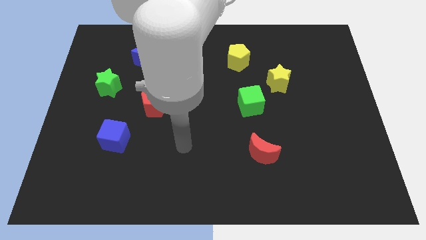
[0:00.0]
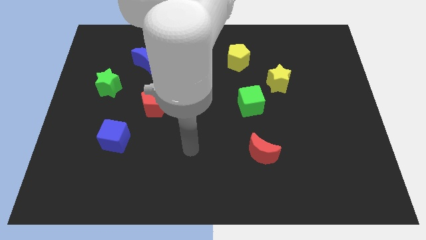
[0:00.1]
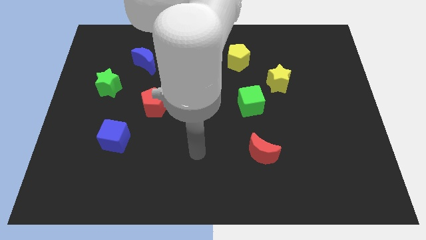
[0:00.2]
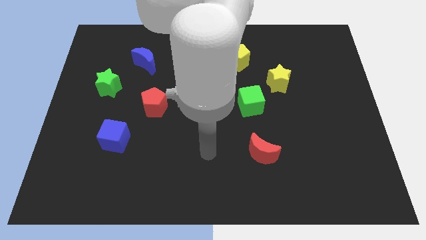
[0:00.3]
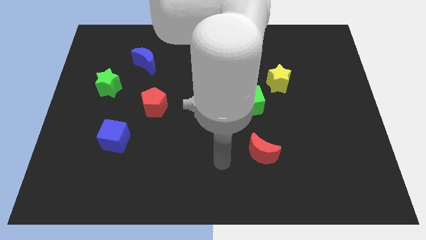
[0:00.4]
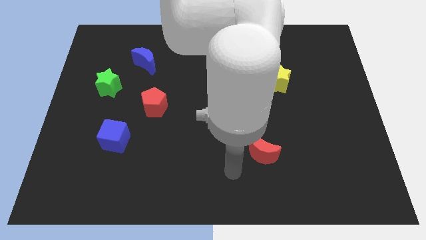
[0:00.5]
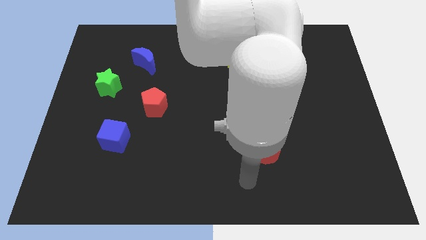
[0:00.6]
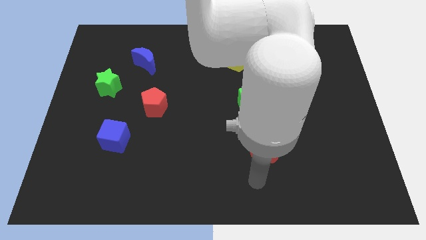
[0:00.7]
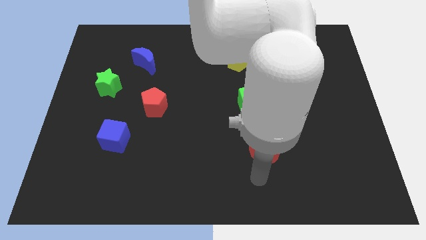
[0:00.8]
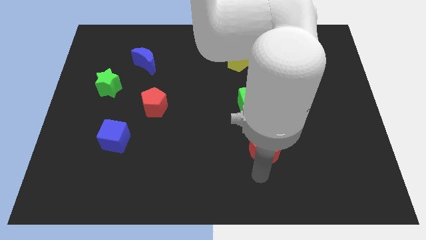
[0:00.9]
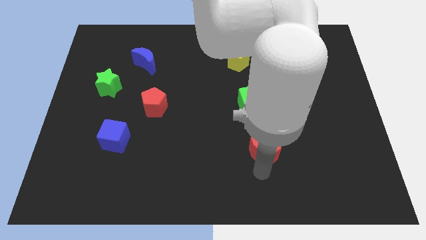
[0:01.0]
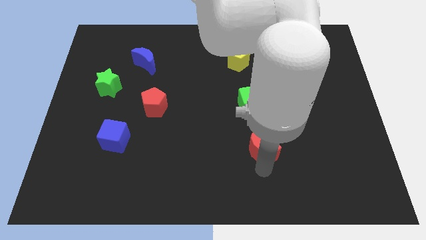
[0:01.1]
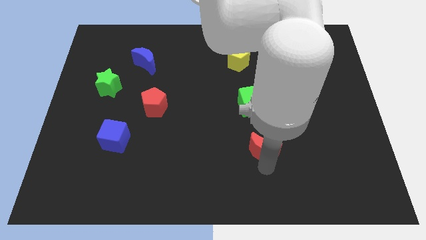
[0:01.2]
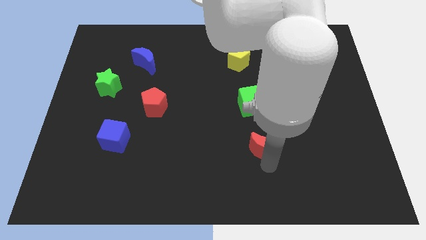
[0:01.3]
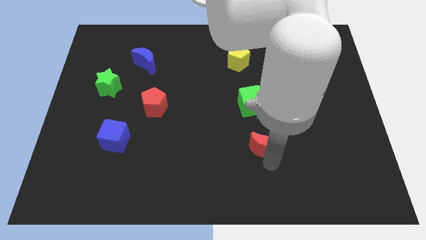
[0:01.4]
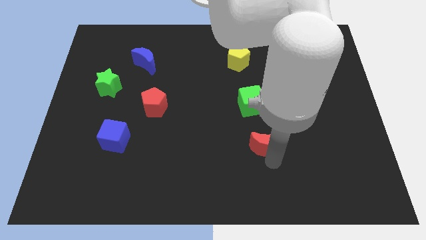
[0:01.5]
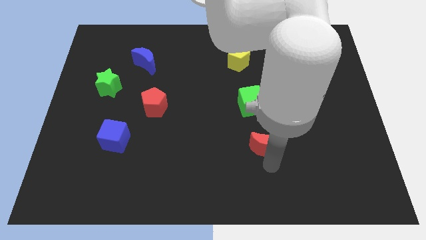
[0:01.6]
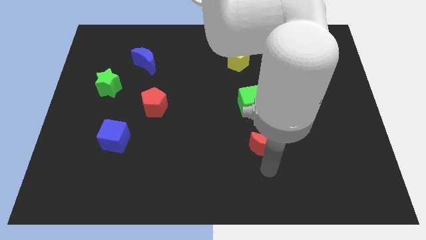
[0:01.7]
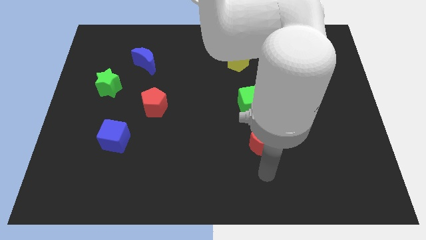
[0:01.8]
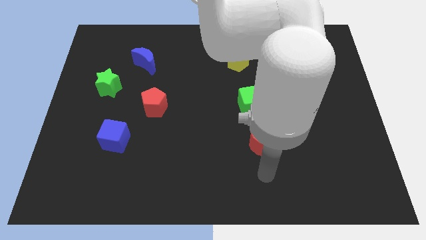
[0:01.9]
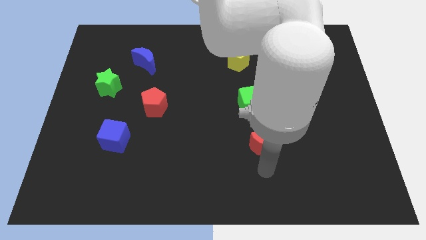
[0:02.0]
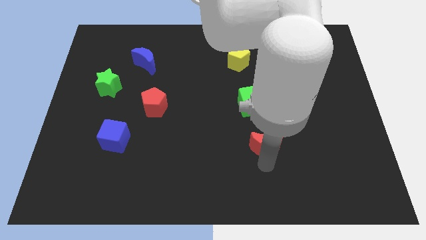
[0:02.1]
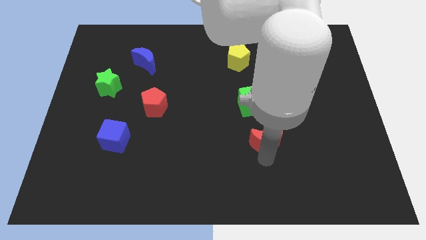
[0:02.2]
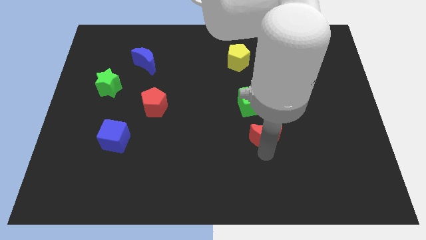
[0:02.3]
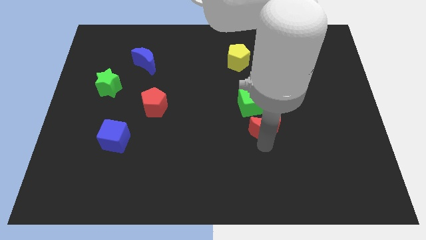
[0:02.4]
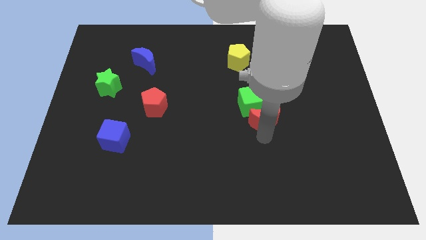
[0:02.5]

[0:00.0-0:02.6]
push the red moon a little bit upwards

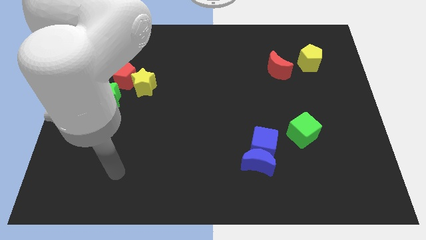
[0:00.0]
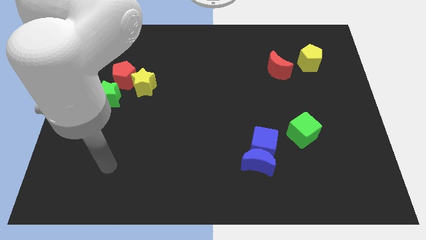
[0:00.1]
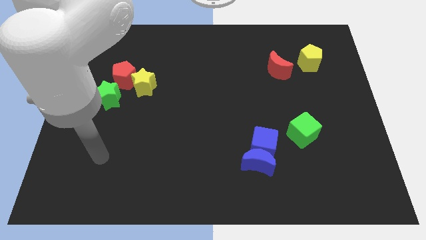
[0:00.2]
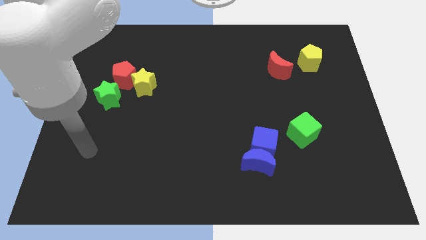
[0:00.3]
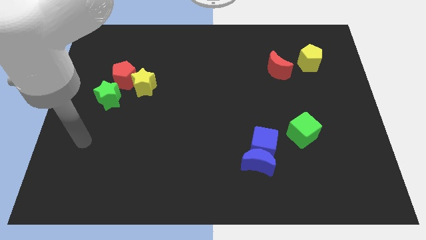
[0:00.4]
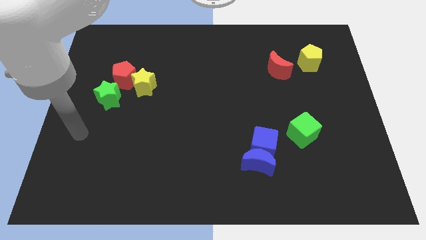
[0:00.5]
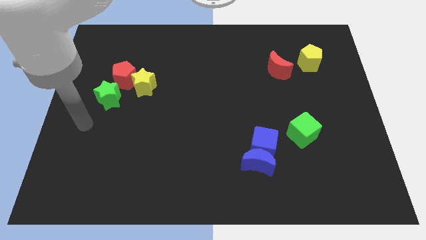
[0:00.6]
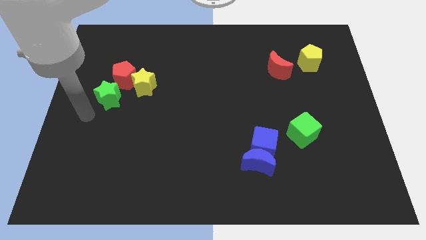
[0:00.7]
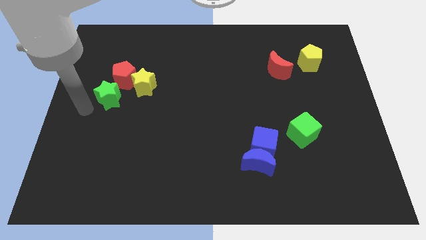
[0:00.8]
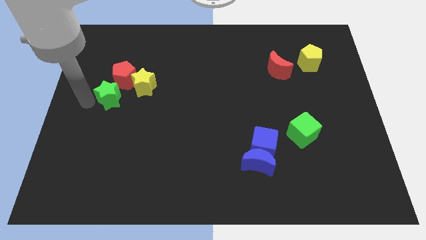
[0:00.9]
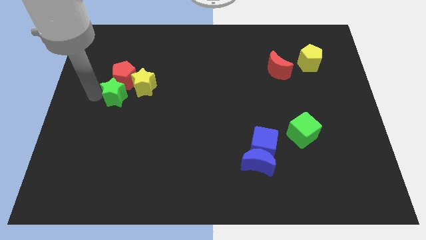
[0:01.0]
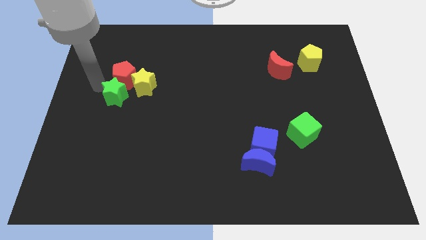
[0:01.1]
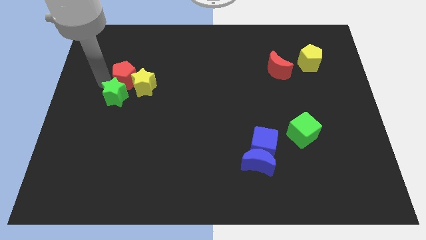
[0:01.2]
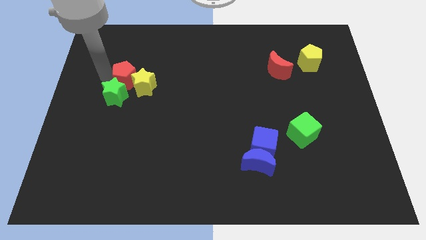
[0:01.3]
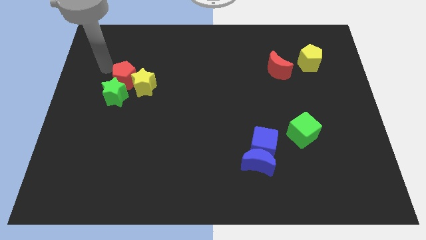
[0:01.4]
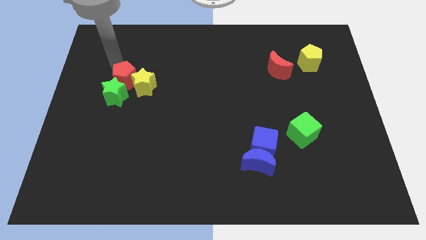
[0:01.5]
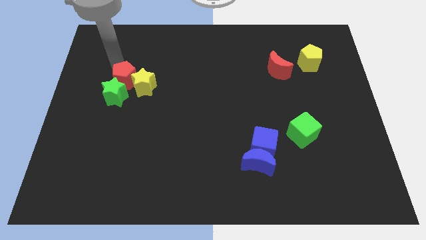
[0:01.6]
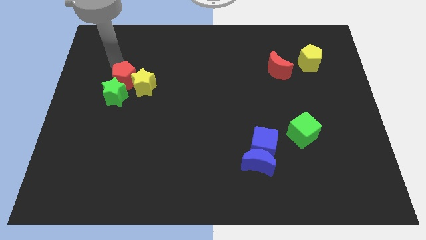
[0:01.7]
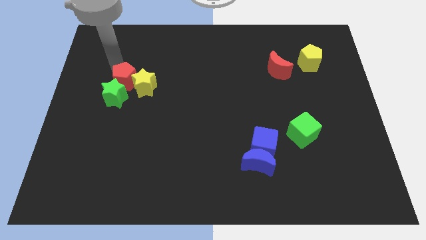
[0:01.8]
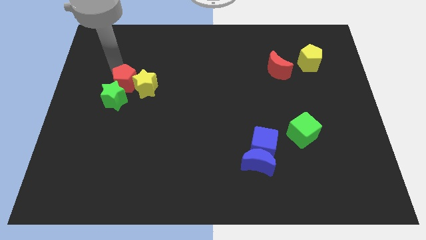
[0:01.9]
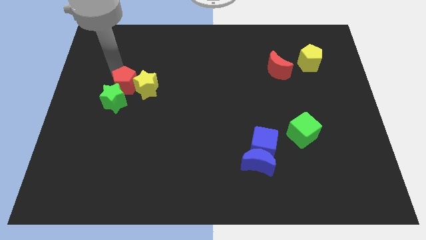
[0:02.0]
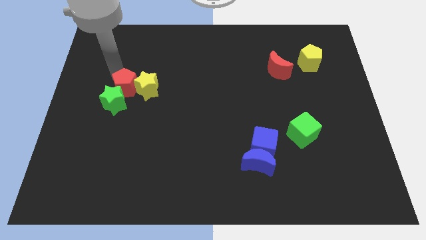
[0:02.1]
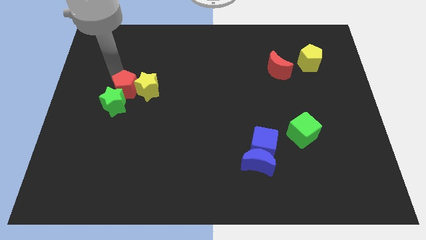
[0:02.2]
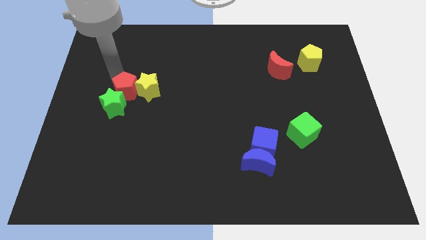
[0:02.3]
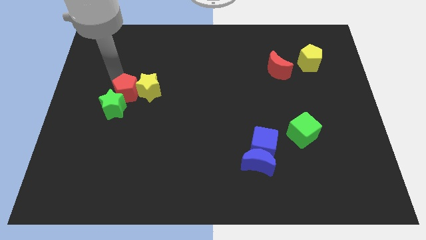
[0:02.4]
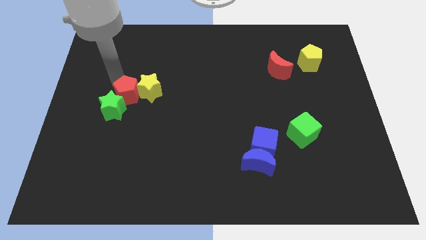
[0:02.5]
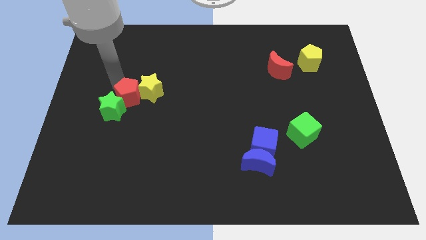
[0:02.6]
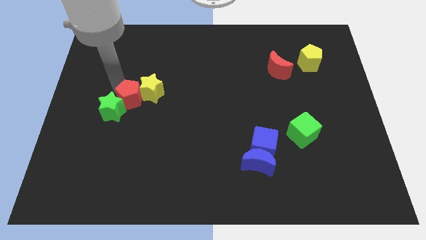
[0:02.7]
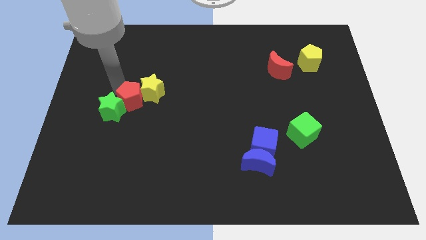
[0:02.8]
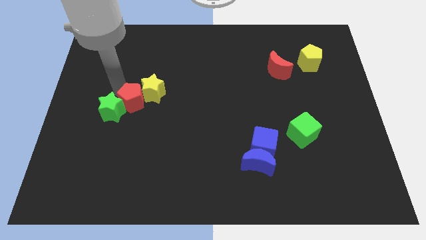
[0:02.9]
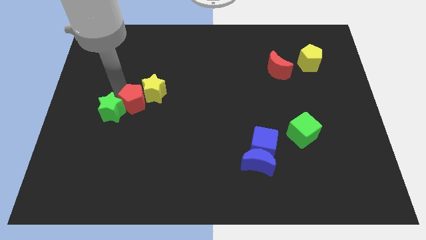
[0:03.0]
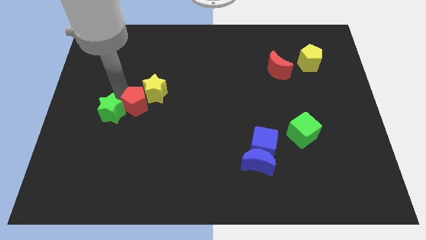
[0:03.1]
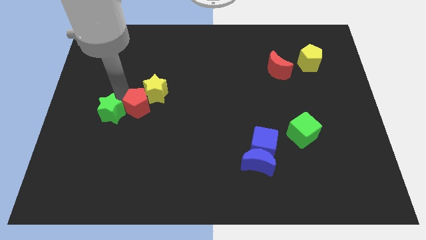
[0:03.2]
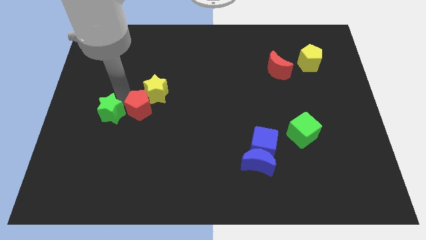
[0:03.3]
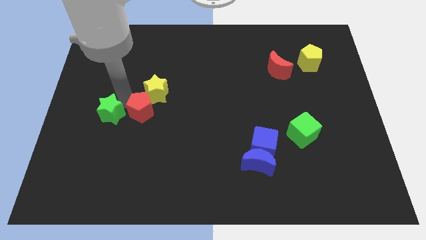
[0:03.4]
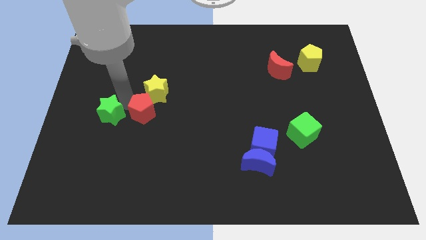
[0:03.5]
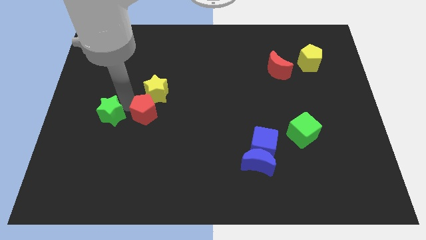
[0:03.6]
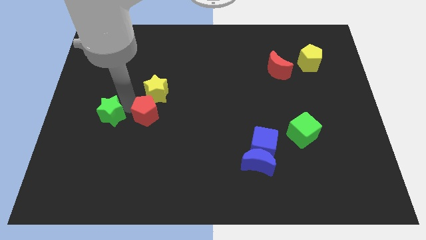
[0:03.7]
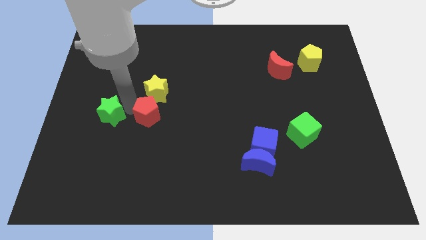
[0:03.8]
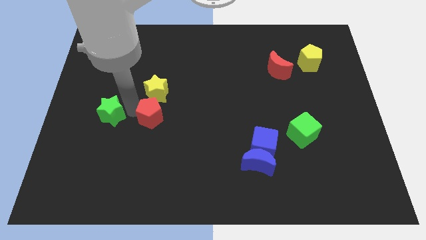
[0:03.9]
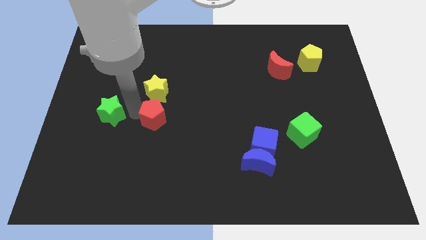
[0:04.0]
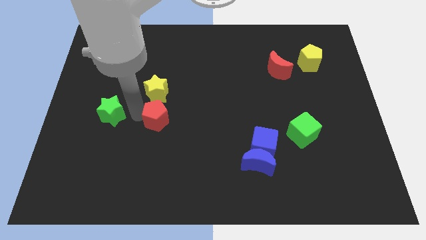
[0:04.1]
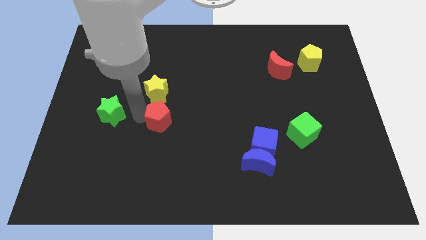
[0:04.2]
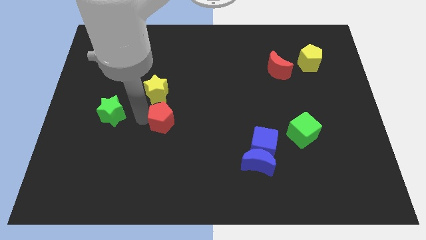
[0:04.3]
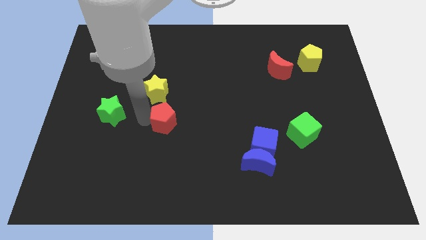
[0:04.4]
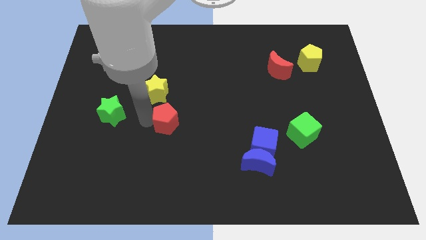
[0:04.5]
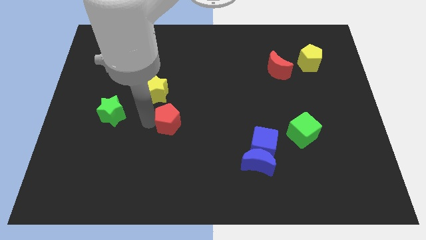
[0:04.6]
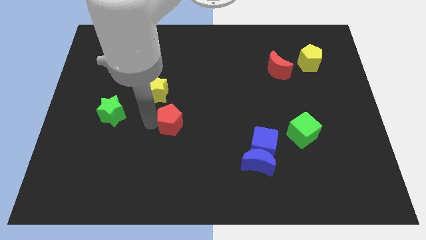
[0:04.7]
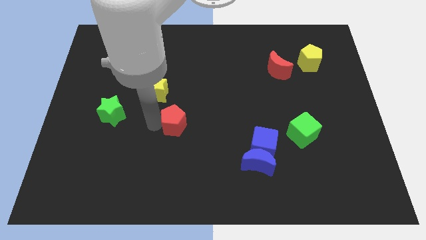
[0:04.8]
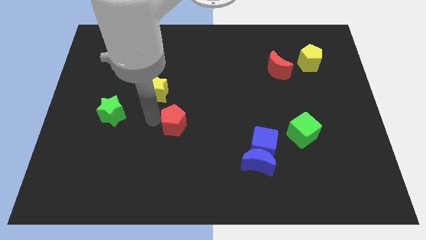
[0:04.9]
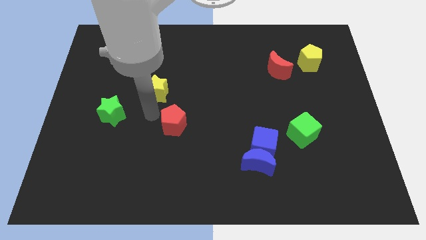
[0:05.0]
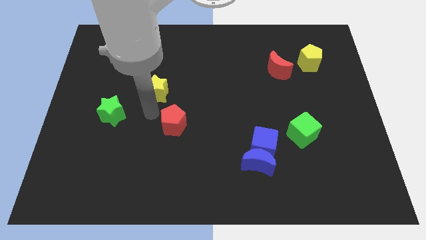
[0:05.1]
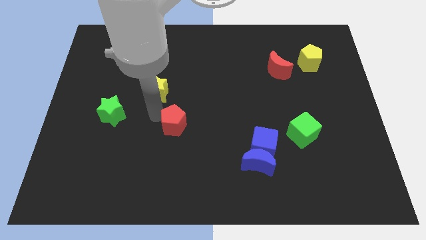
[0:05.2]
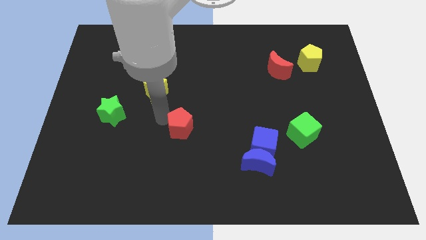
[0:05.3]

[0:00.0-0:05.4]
move the red pentagon down and then to the right
